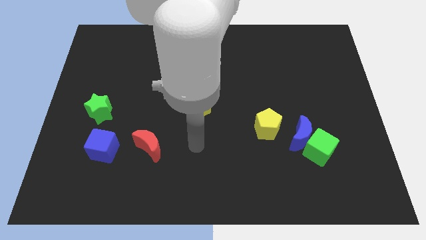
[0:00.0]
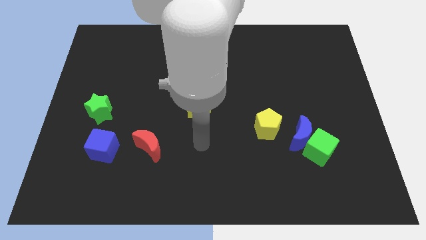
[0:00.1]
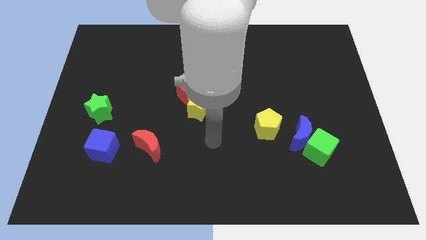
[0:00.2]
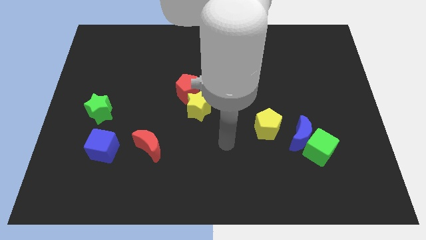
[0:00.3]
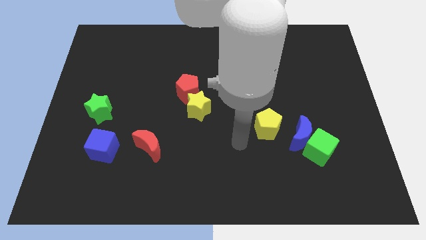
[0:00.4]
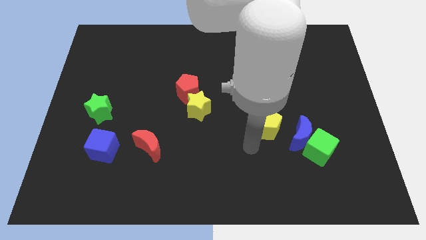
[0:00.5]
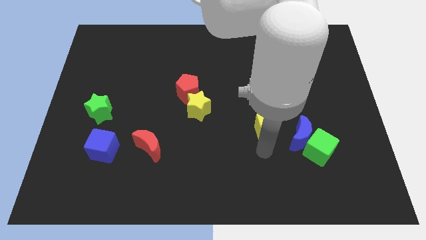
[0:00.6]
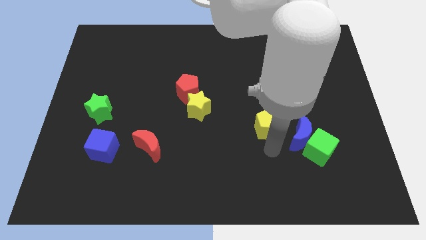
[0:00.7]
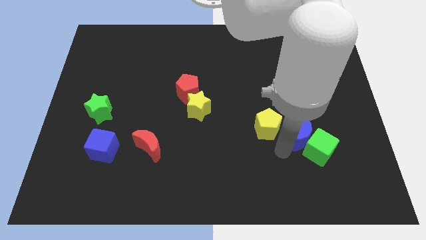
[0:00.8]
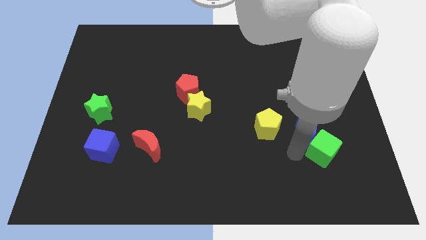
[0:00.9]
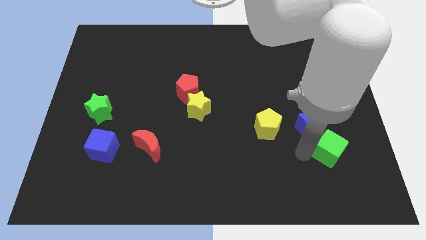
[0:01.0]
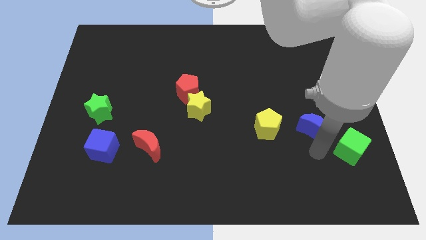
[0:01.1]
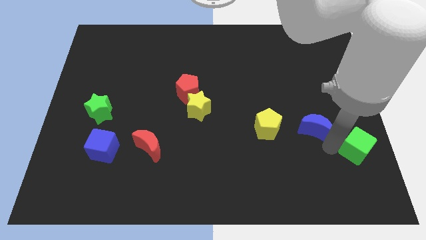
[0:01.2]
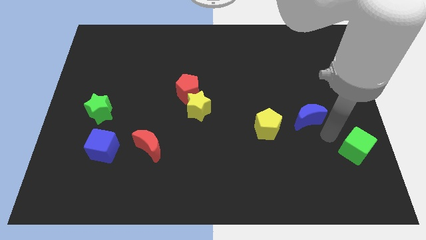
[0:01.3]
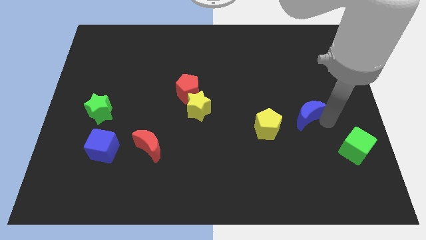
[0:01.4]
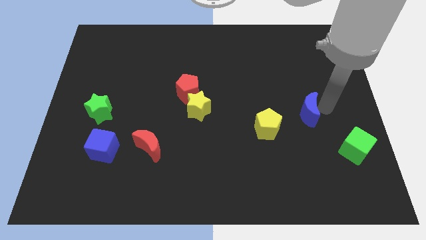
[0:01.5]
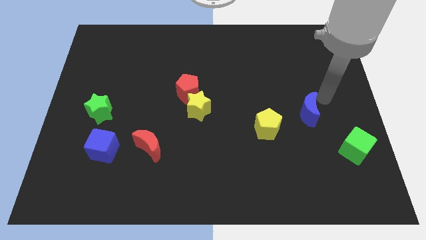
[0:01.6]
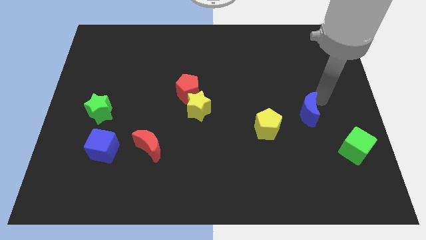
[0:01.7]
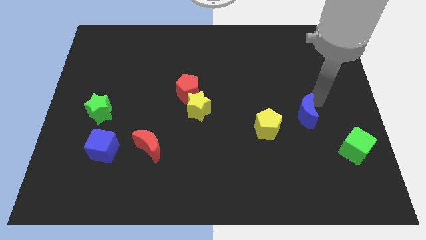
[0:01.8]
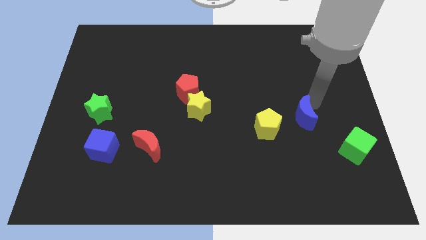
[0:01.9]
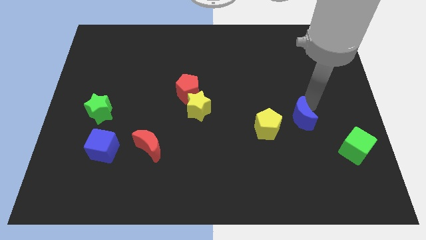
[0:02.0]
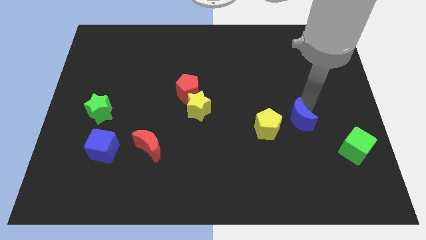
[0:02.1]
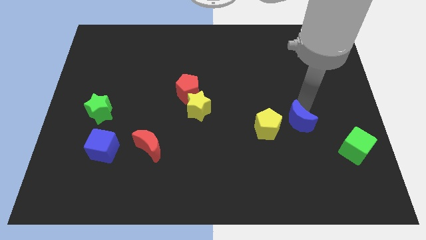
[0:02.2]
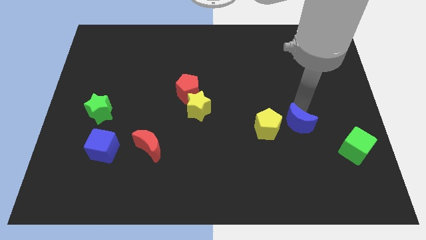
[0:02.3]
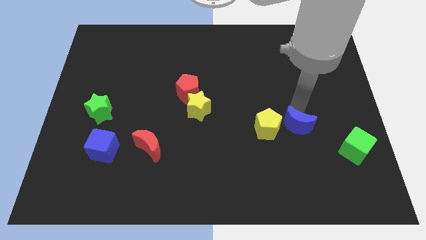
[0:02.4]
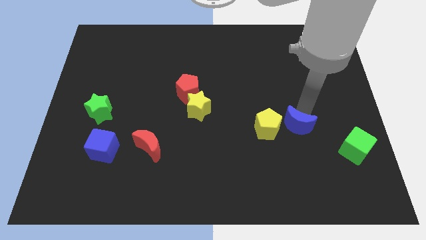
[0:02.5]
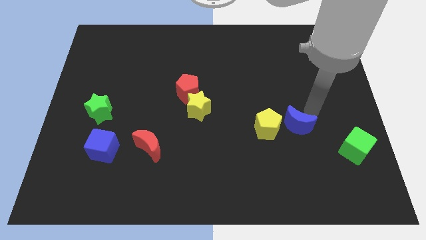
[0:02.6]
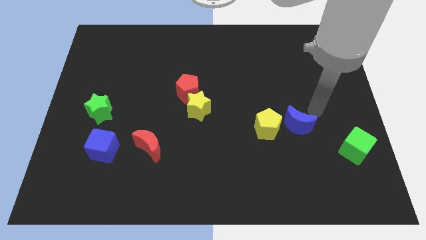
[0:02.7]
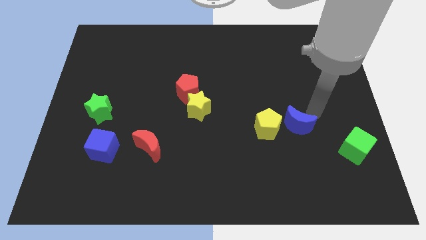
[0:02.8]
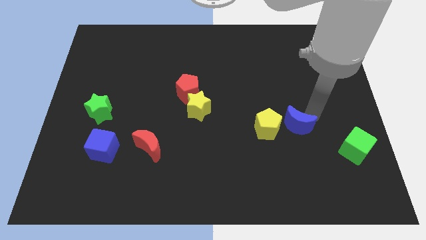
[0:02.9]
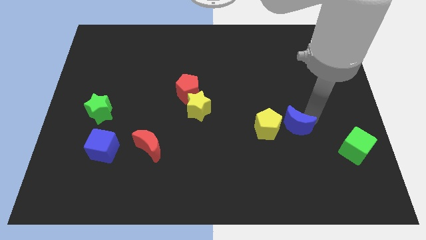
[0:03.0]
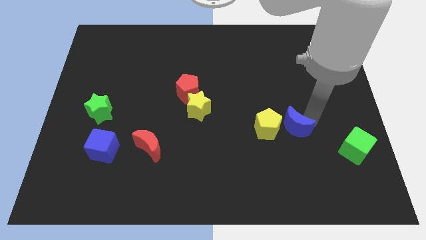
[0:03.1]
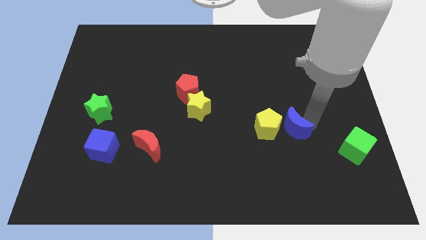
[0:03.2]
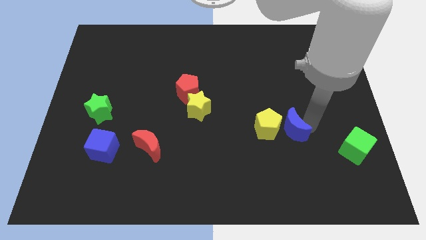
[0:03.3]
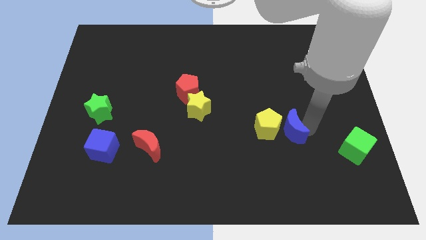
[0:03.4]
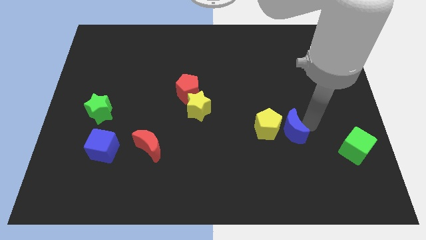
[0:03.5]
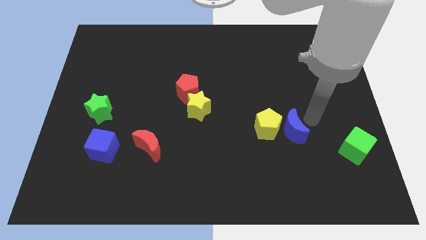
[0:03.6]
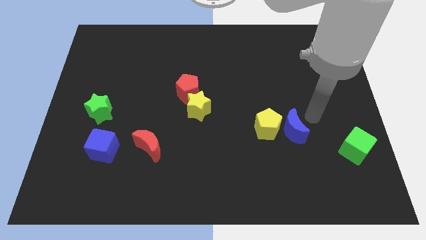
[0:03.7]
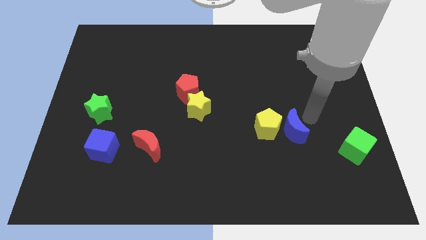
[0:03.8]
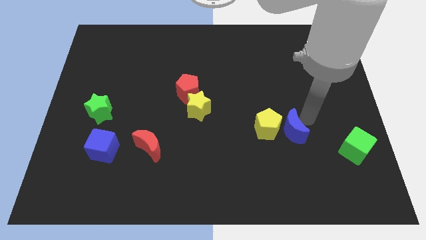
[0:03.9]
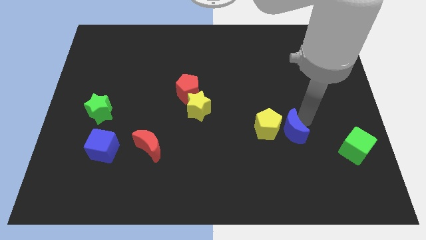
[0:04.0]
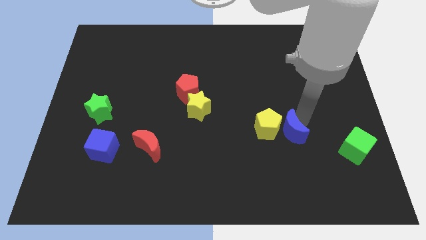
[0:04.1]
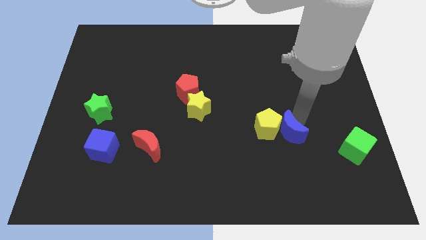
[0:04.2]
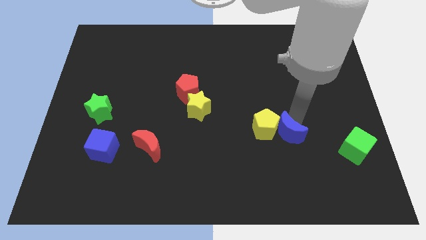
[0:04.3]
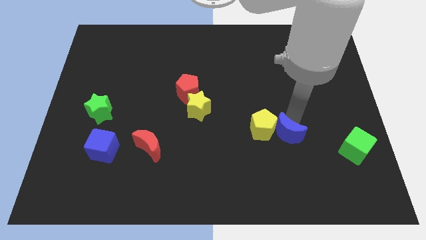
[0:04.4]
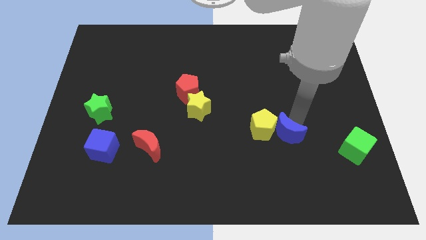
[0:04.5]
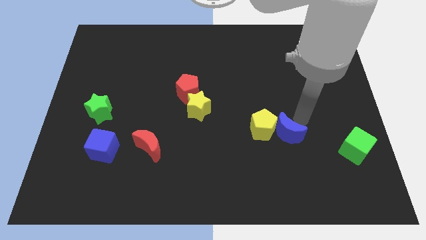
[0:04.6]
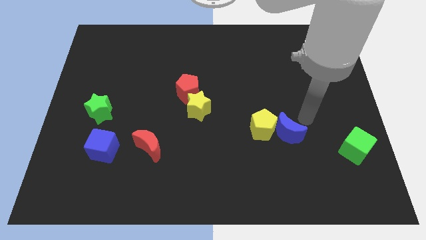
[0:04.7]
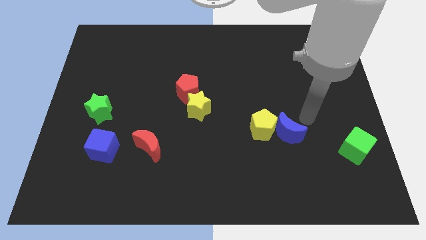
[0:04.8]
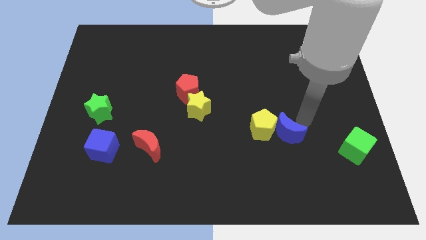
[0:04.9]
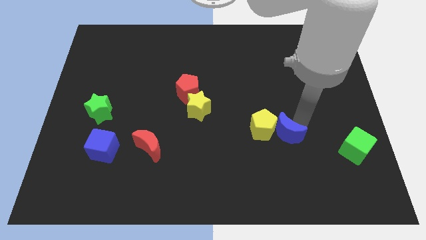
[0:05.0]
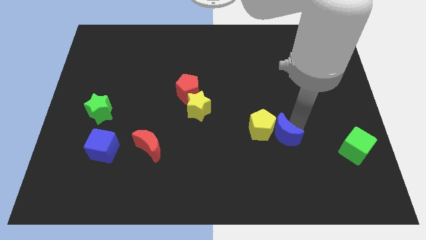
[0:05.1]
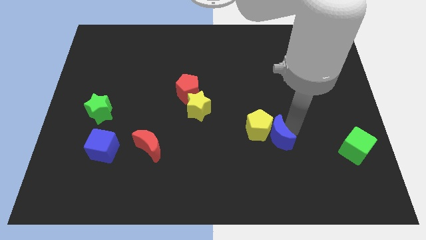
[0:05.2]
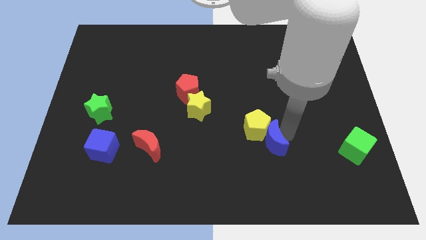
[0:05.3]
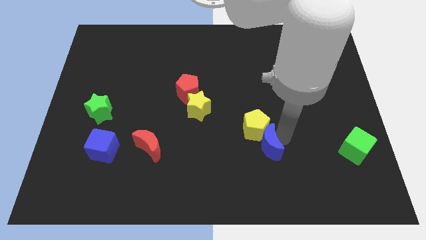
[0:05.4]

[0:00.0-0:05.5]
slightly slide the blue moon left

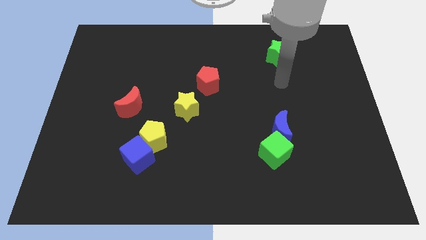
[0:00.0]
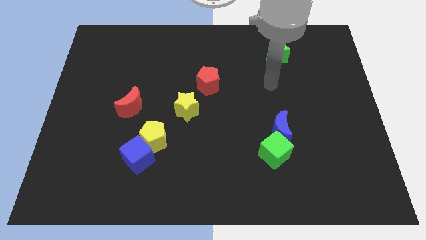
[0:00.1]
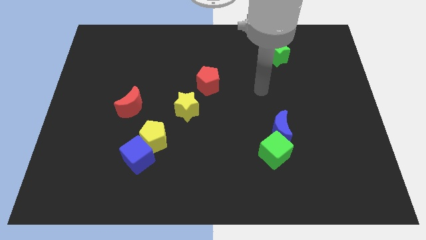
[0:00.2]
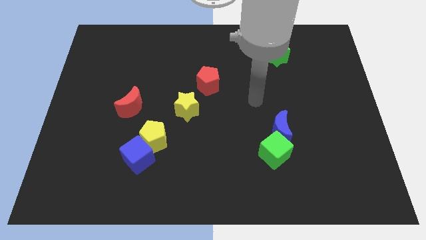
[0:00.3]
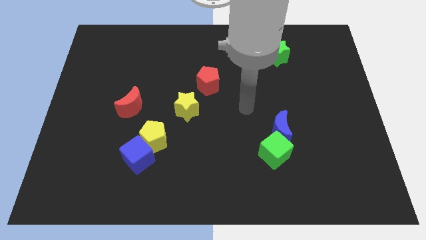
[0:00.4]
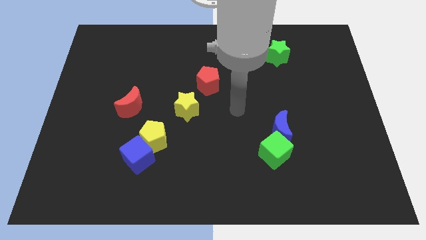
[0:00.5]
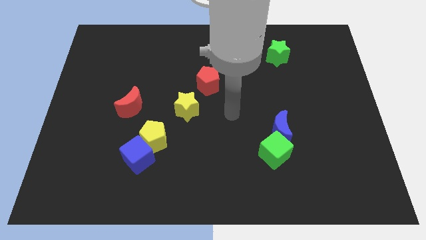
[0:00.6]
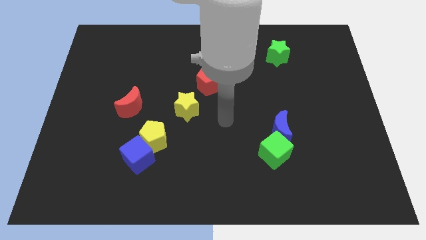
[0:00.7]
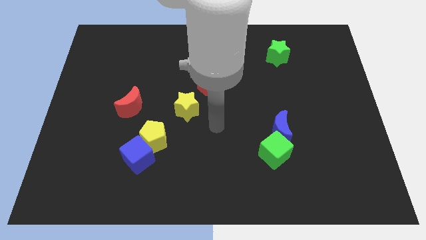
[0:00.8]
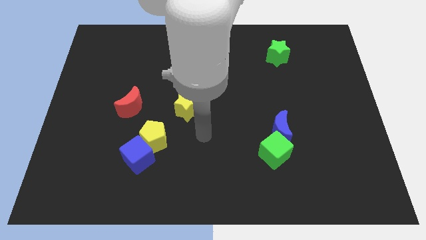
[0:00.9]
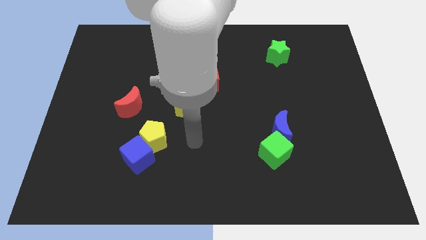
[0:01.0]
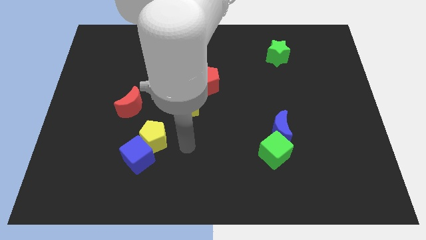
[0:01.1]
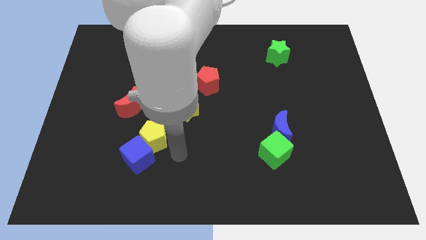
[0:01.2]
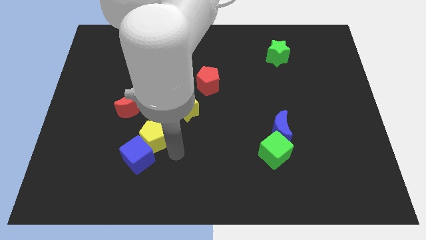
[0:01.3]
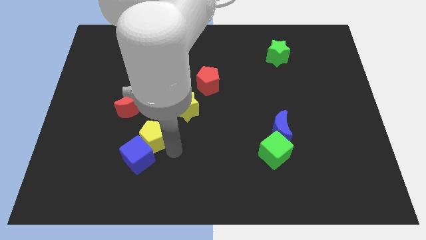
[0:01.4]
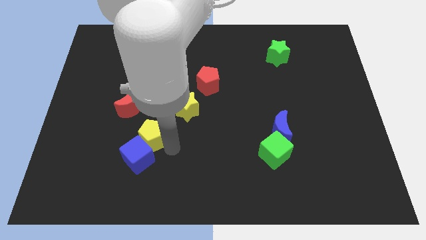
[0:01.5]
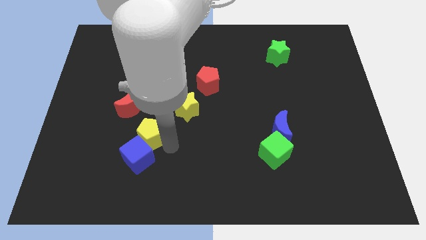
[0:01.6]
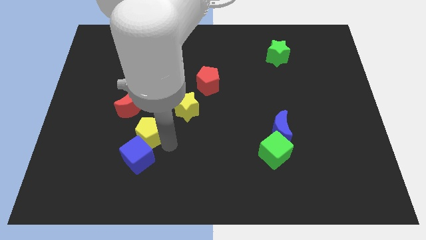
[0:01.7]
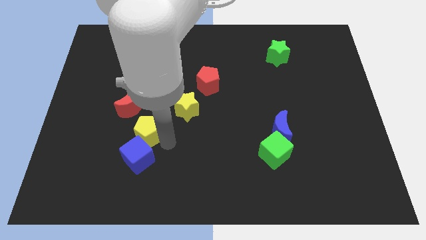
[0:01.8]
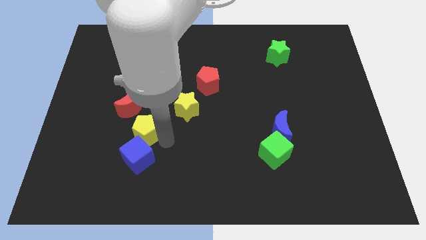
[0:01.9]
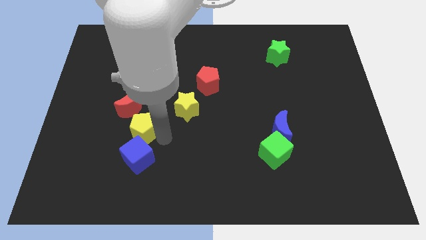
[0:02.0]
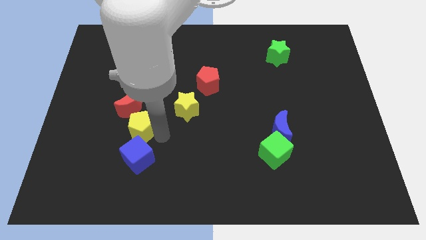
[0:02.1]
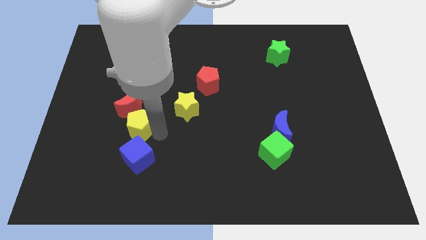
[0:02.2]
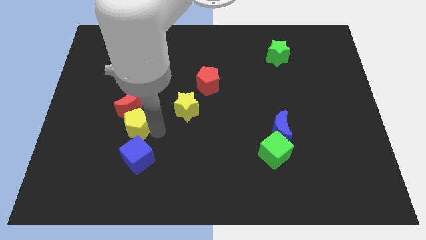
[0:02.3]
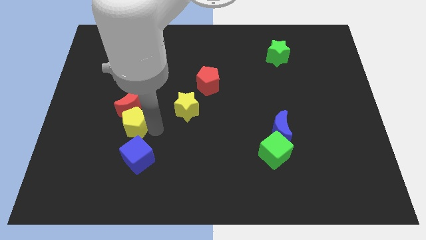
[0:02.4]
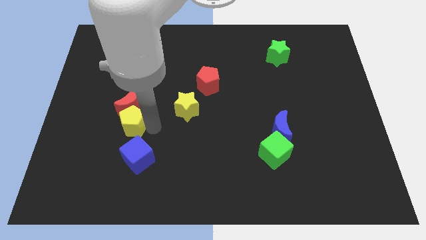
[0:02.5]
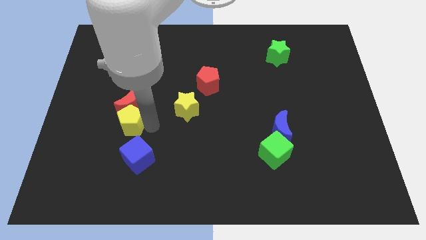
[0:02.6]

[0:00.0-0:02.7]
push the yellow pentagon upwards and to the left slightly
